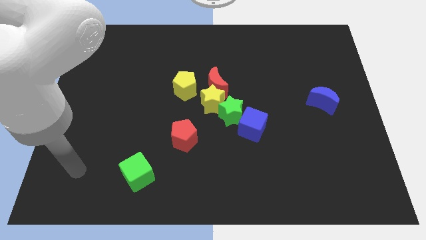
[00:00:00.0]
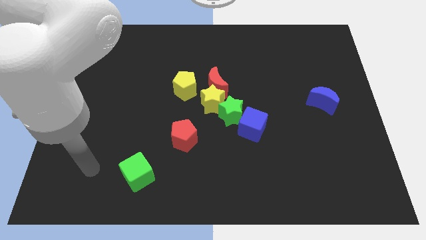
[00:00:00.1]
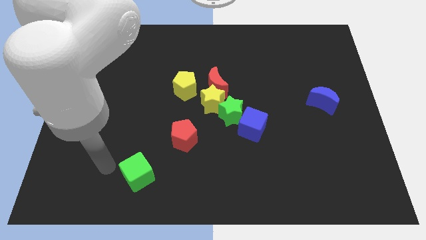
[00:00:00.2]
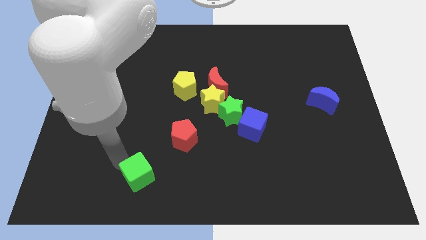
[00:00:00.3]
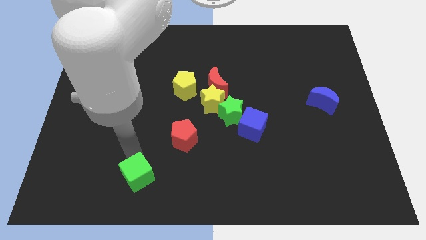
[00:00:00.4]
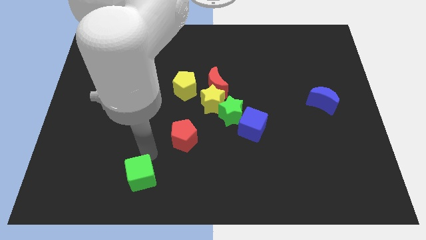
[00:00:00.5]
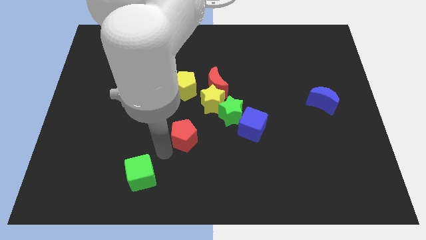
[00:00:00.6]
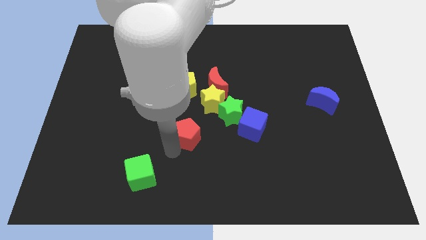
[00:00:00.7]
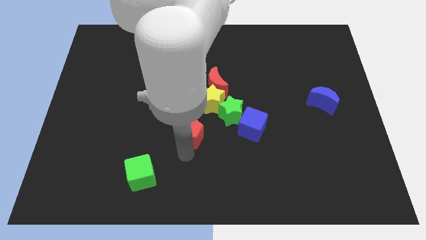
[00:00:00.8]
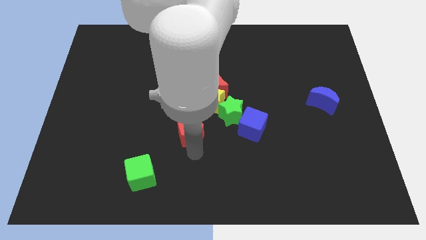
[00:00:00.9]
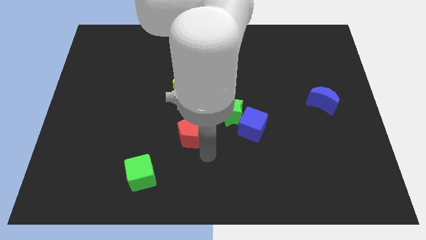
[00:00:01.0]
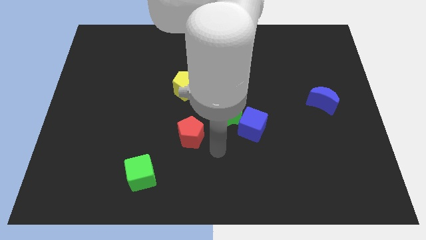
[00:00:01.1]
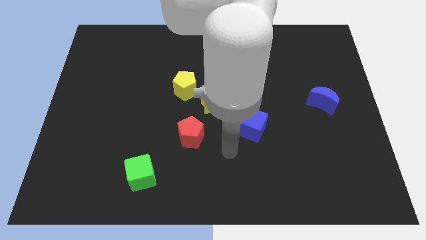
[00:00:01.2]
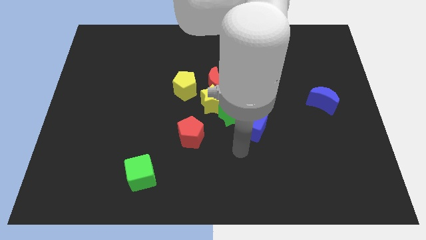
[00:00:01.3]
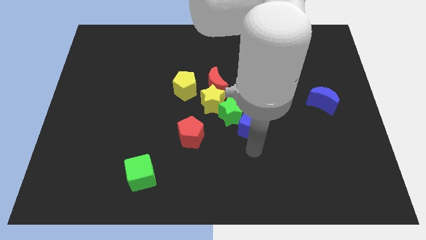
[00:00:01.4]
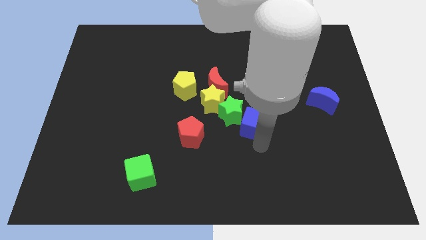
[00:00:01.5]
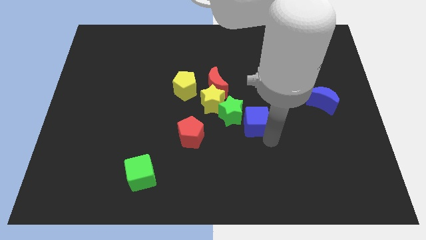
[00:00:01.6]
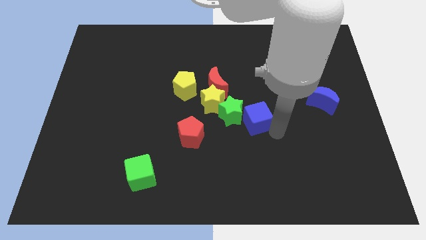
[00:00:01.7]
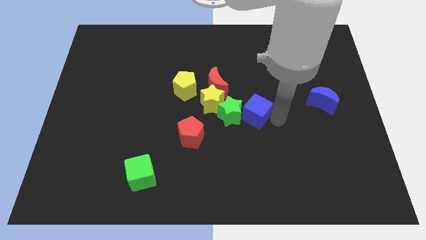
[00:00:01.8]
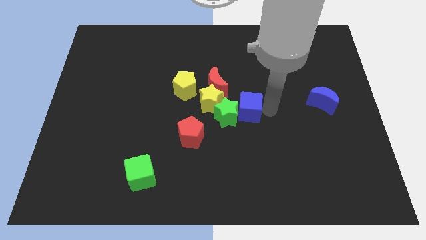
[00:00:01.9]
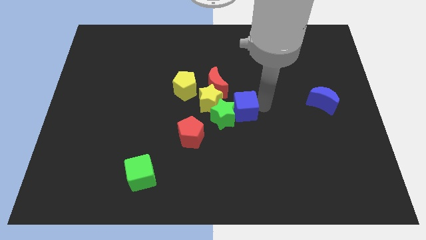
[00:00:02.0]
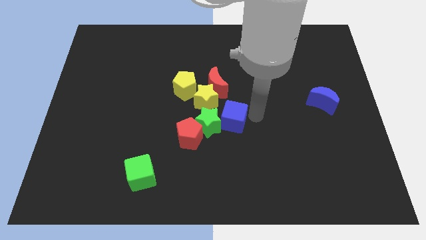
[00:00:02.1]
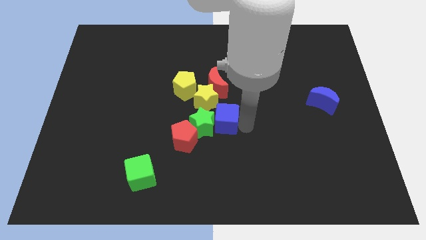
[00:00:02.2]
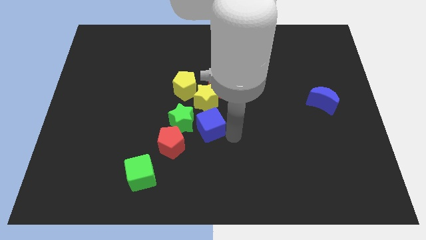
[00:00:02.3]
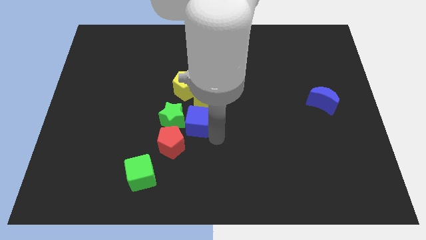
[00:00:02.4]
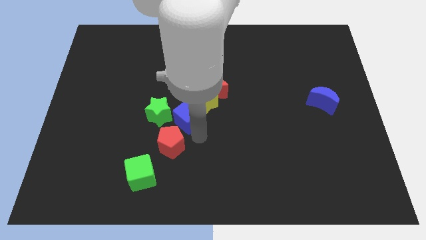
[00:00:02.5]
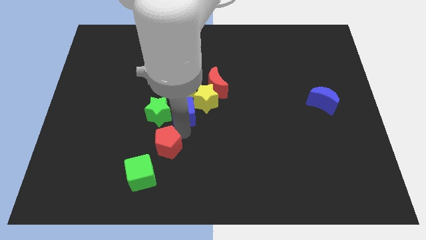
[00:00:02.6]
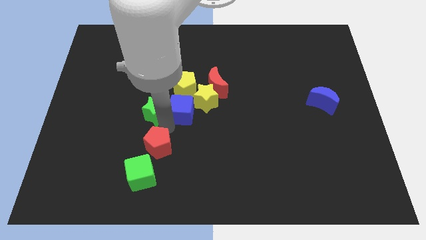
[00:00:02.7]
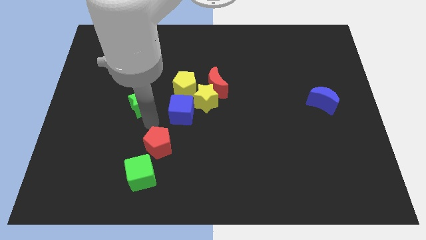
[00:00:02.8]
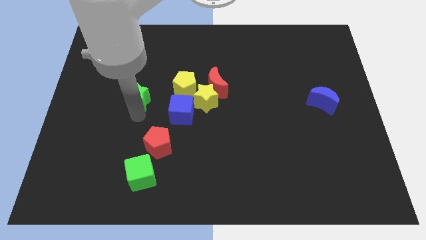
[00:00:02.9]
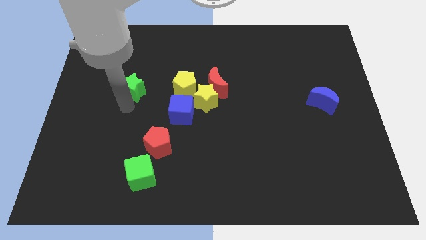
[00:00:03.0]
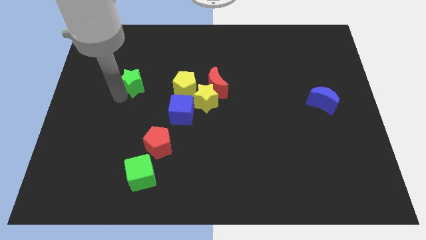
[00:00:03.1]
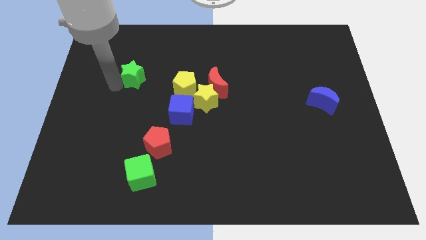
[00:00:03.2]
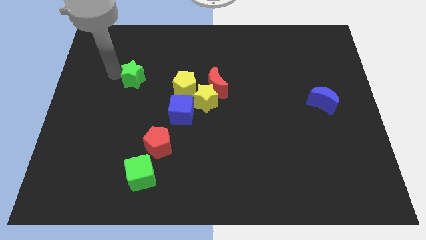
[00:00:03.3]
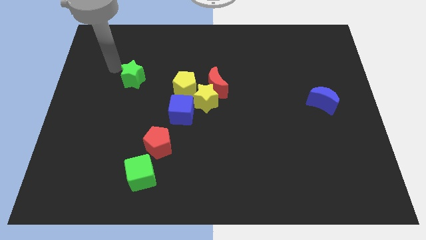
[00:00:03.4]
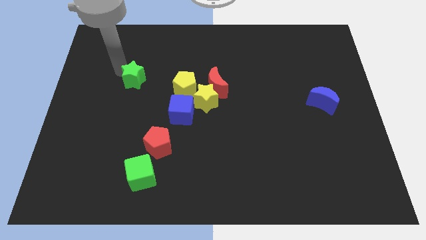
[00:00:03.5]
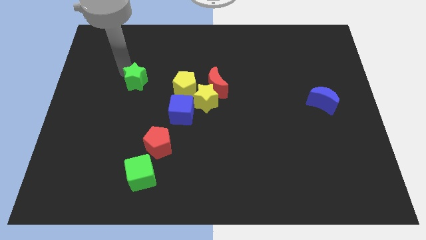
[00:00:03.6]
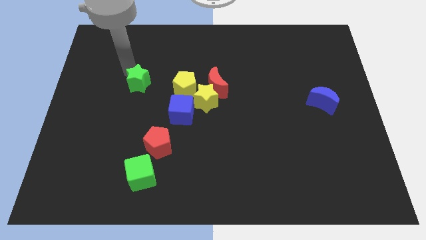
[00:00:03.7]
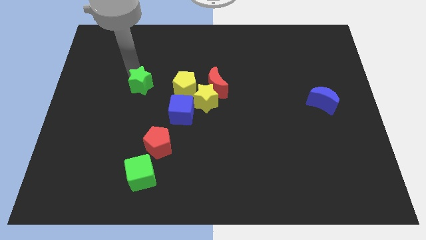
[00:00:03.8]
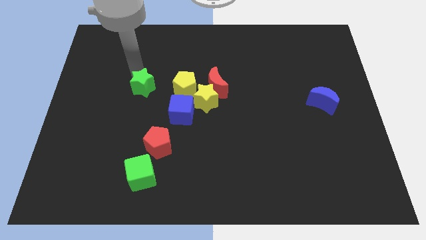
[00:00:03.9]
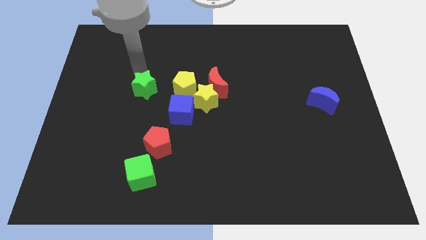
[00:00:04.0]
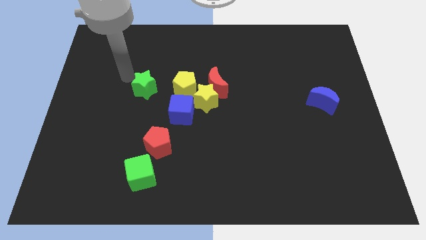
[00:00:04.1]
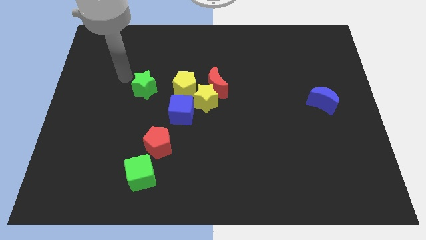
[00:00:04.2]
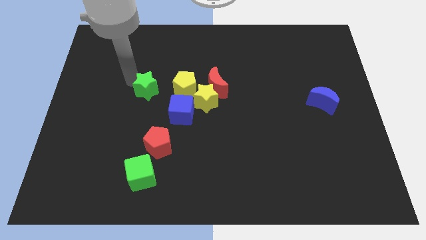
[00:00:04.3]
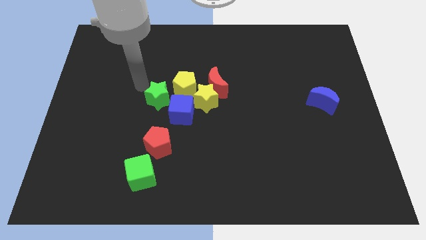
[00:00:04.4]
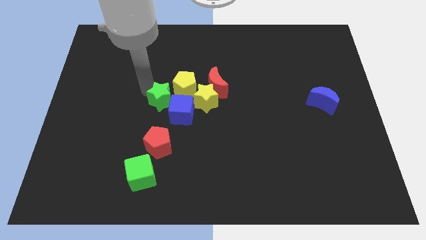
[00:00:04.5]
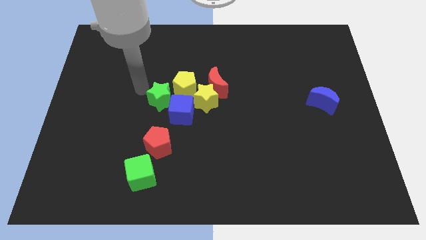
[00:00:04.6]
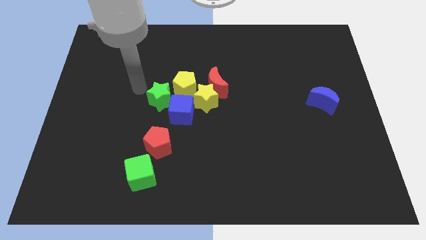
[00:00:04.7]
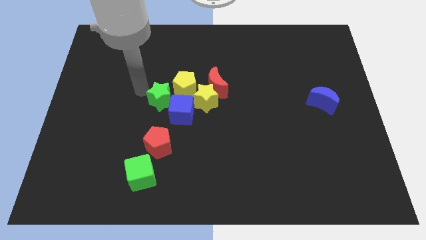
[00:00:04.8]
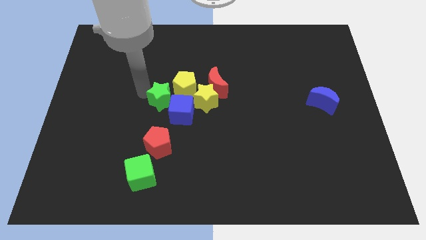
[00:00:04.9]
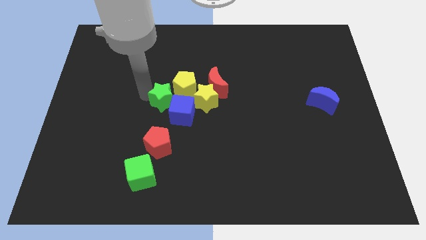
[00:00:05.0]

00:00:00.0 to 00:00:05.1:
move the green star towards the yellow pentagon

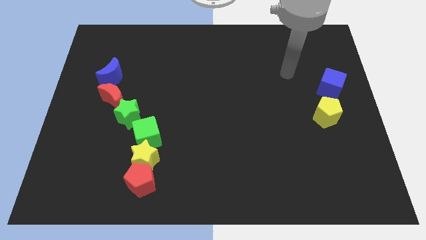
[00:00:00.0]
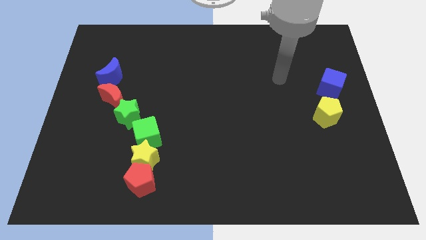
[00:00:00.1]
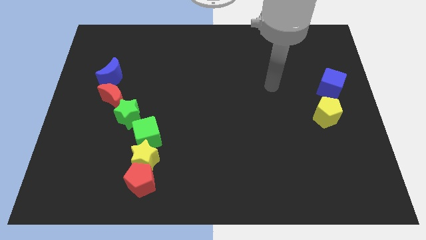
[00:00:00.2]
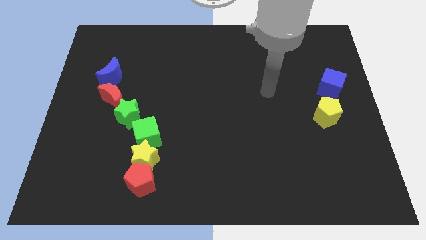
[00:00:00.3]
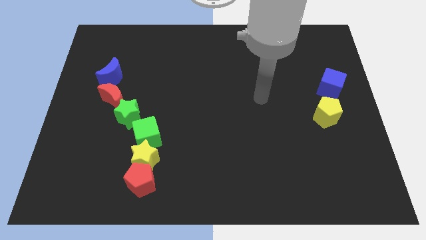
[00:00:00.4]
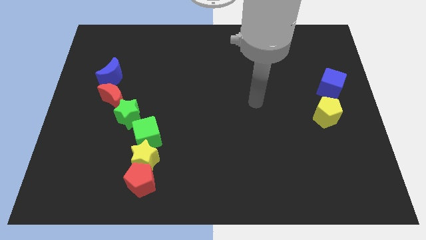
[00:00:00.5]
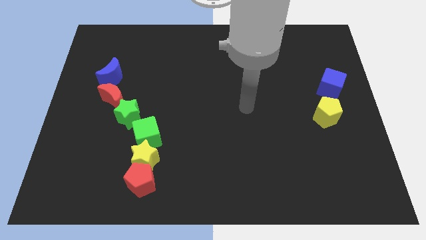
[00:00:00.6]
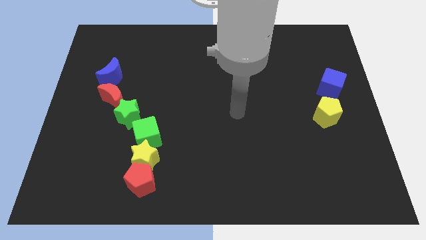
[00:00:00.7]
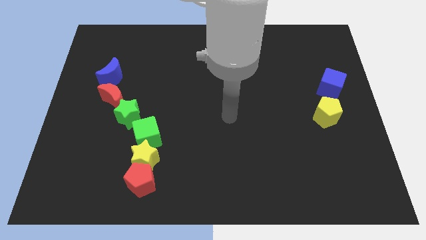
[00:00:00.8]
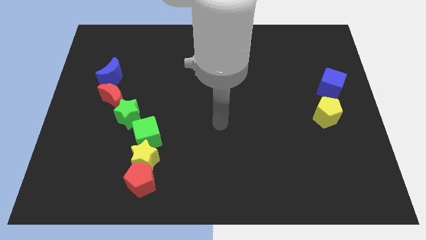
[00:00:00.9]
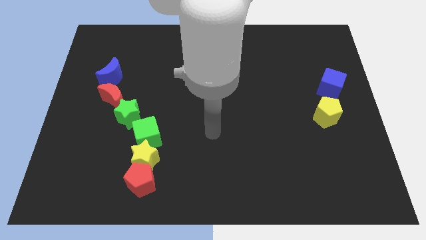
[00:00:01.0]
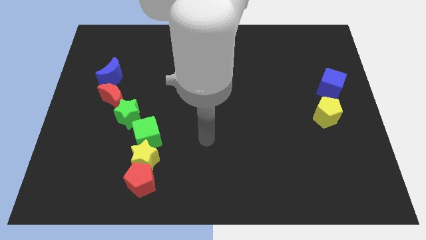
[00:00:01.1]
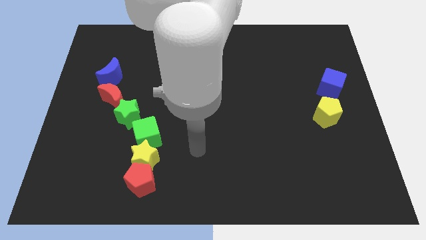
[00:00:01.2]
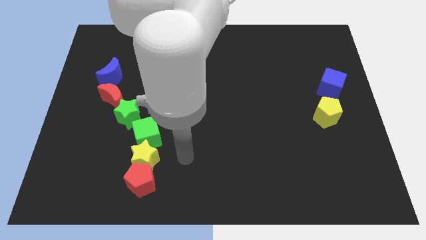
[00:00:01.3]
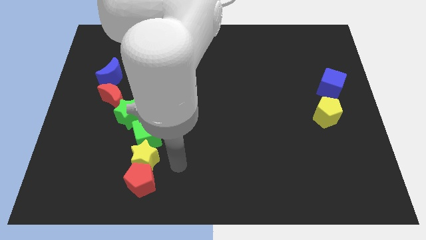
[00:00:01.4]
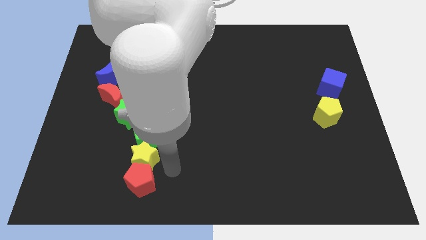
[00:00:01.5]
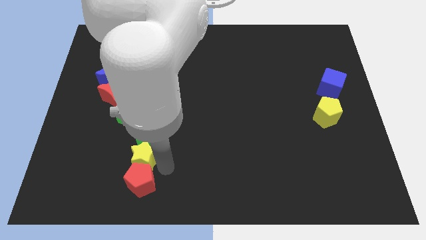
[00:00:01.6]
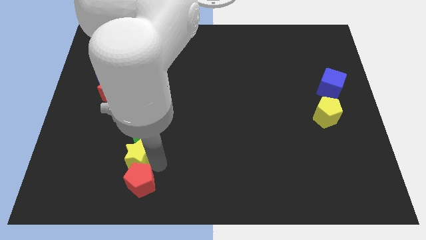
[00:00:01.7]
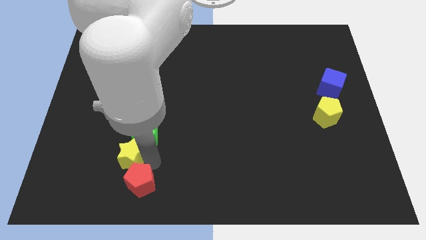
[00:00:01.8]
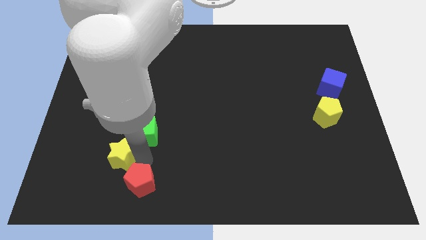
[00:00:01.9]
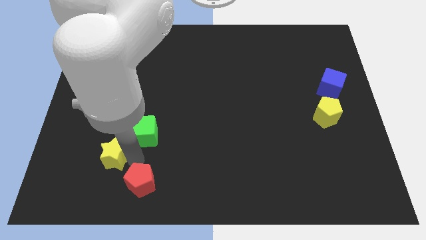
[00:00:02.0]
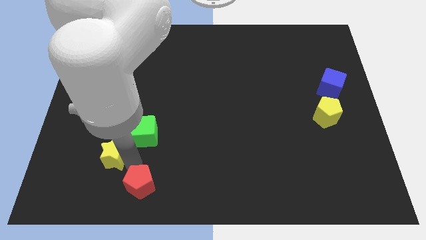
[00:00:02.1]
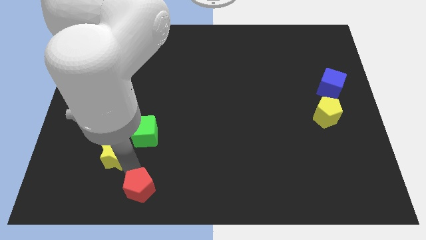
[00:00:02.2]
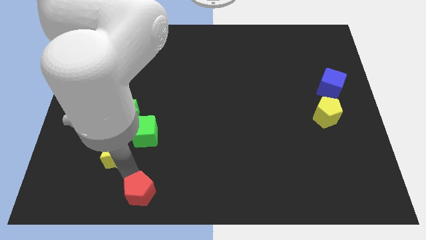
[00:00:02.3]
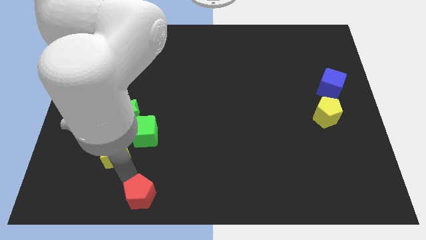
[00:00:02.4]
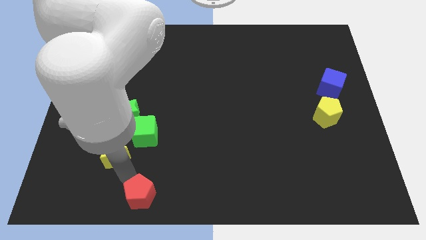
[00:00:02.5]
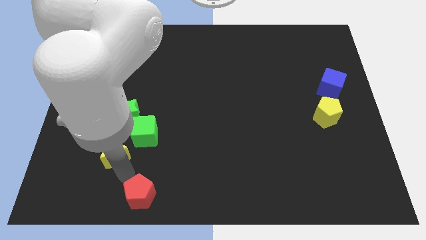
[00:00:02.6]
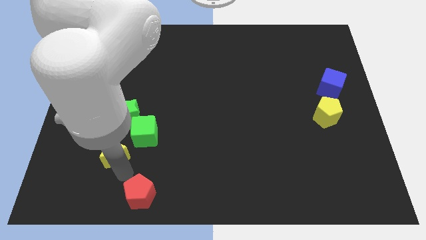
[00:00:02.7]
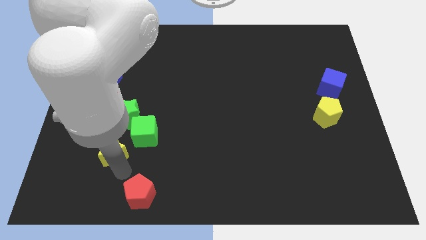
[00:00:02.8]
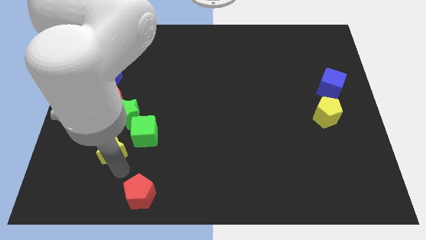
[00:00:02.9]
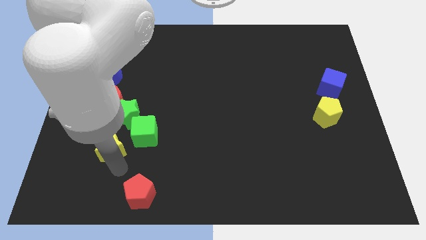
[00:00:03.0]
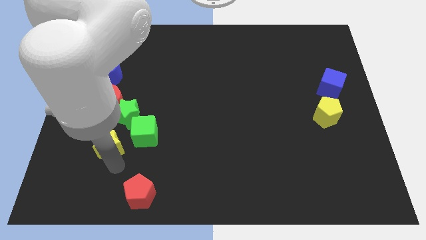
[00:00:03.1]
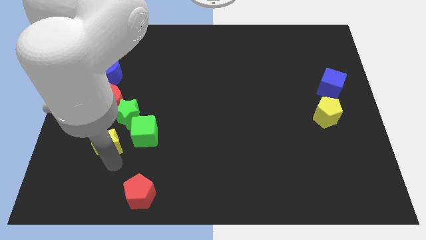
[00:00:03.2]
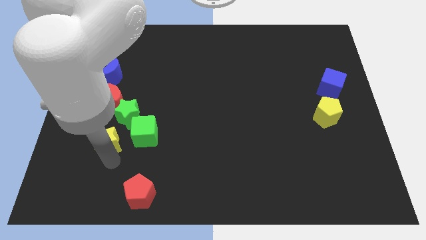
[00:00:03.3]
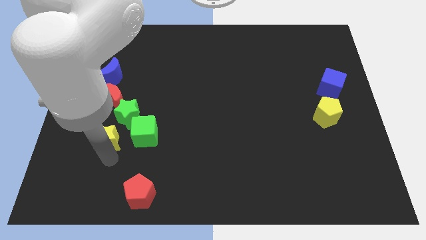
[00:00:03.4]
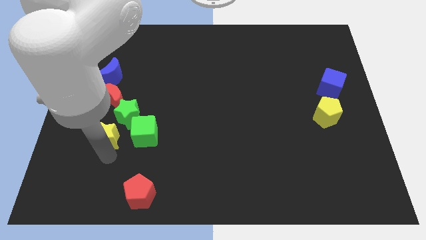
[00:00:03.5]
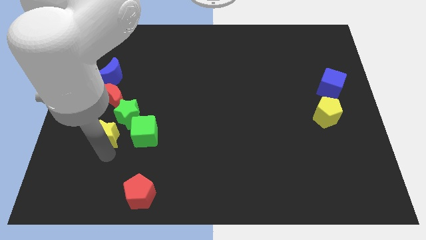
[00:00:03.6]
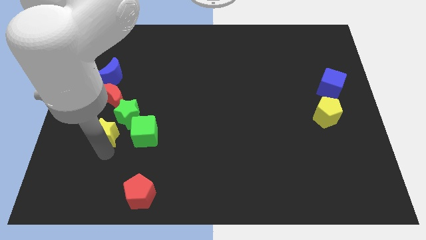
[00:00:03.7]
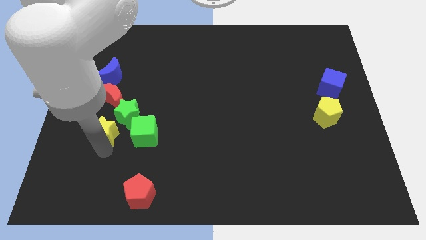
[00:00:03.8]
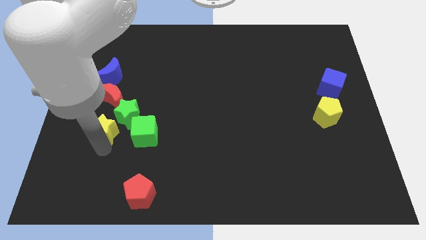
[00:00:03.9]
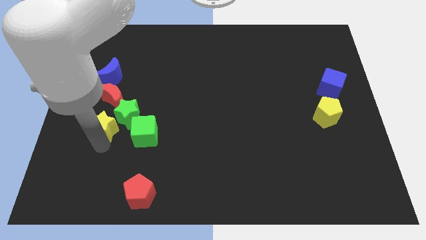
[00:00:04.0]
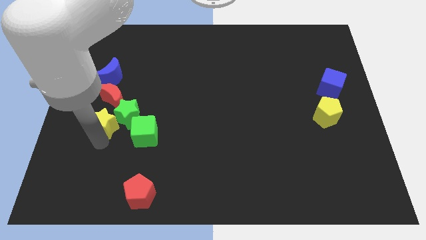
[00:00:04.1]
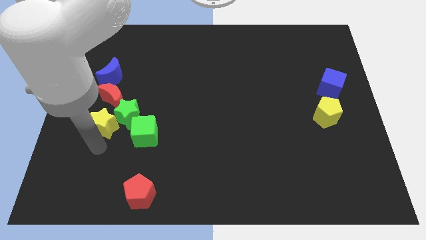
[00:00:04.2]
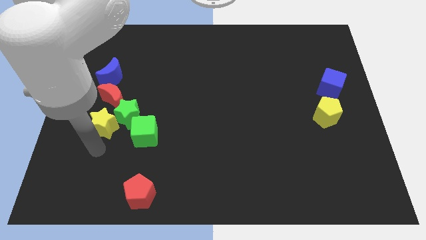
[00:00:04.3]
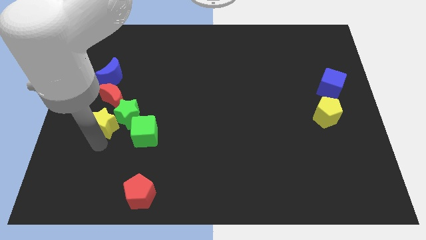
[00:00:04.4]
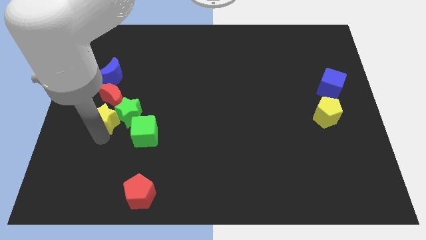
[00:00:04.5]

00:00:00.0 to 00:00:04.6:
put the yellow star close to the red moon
